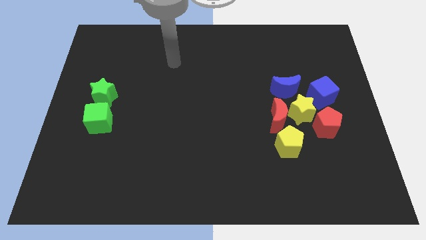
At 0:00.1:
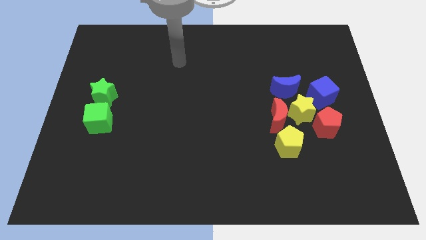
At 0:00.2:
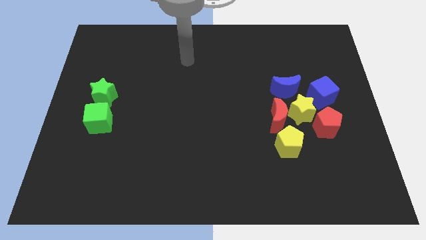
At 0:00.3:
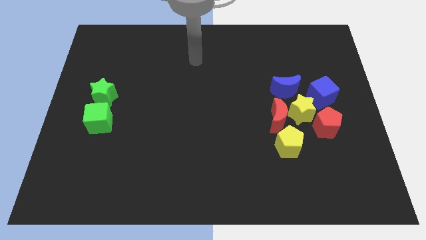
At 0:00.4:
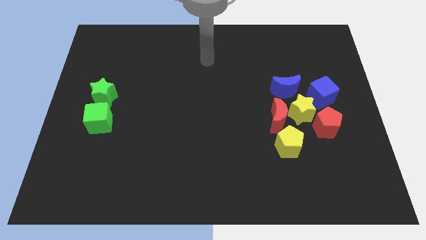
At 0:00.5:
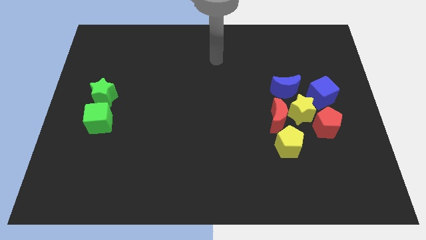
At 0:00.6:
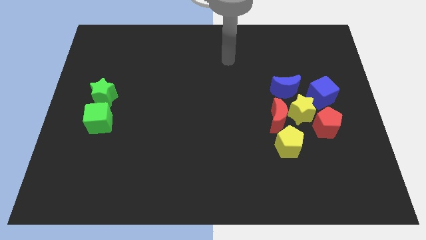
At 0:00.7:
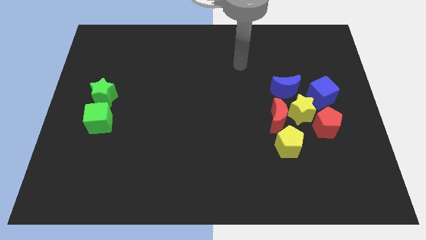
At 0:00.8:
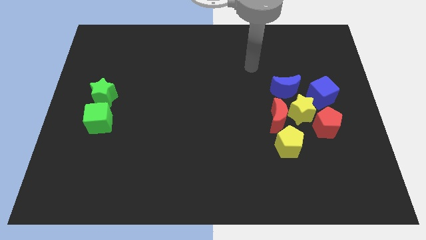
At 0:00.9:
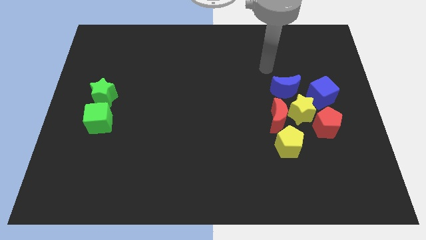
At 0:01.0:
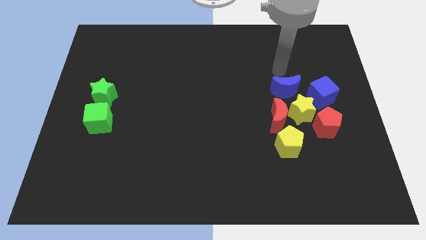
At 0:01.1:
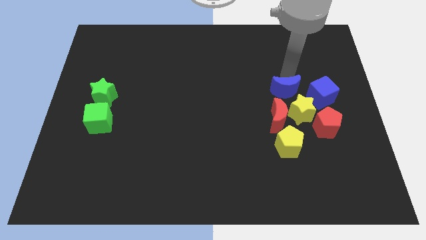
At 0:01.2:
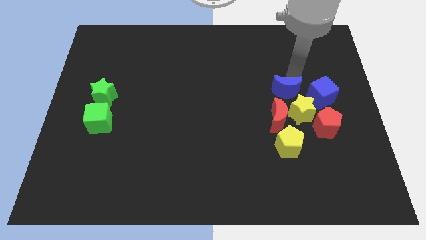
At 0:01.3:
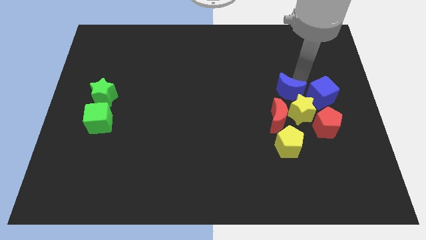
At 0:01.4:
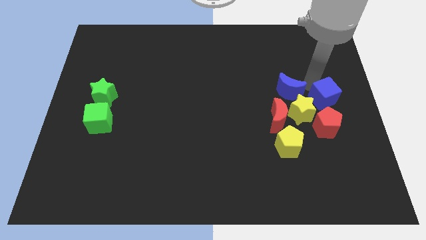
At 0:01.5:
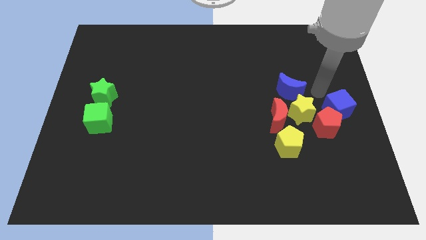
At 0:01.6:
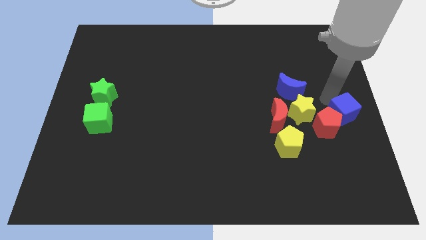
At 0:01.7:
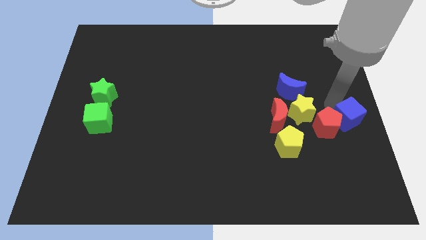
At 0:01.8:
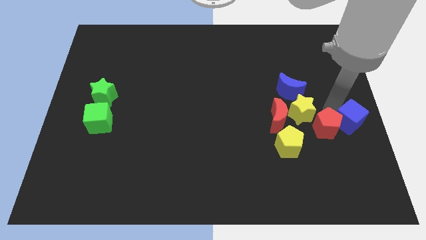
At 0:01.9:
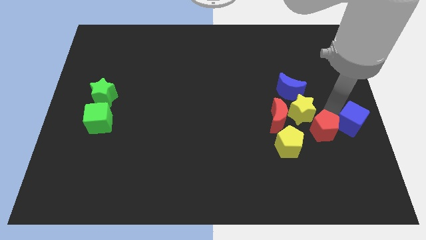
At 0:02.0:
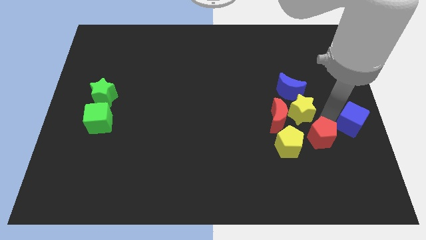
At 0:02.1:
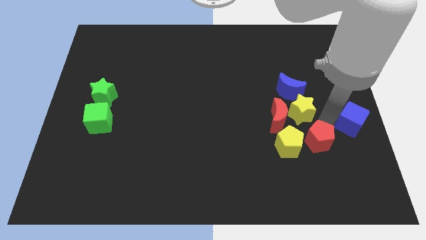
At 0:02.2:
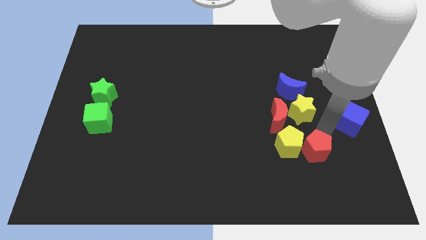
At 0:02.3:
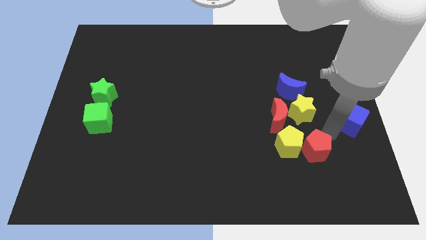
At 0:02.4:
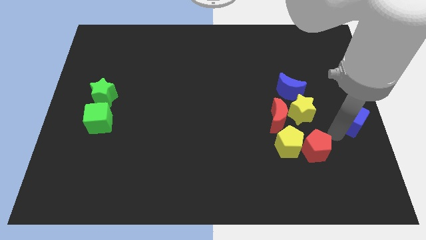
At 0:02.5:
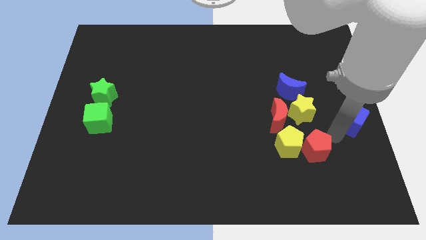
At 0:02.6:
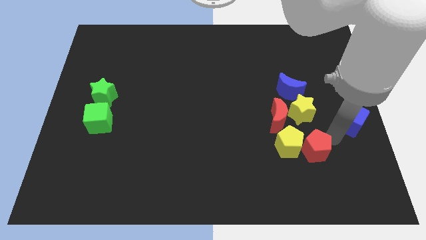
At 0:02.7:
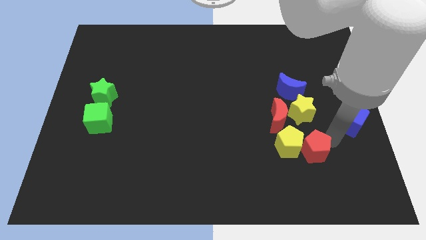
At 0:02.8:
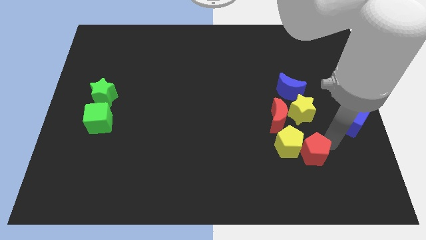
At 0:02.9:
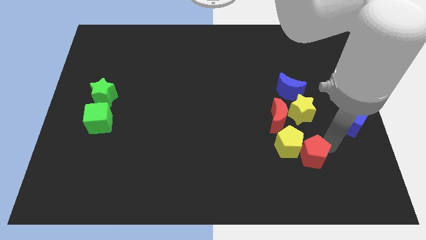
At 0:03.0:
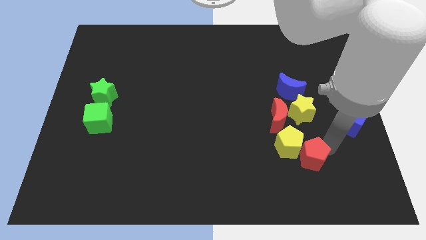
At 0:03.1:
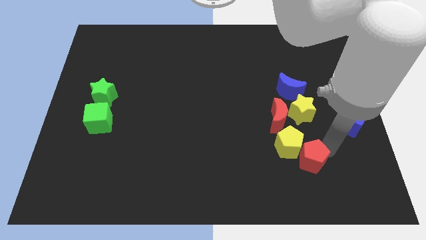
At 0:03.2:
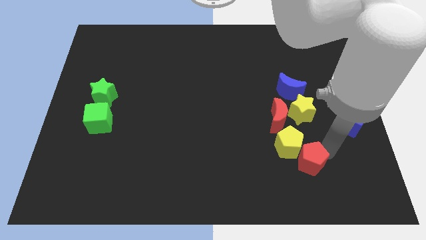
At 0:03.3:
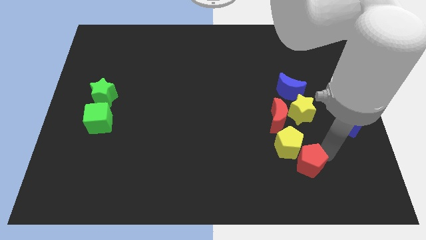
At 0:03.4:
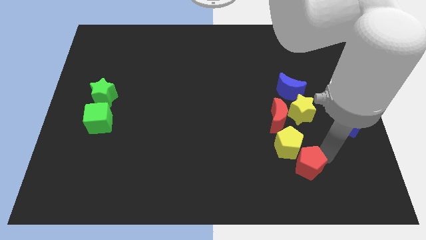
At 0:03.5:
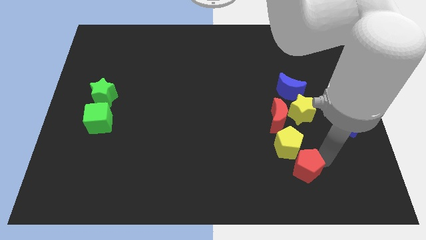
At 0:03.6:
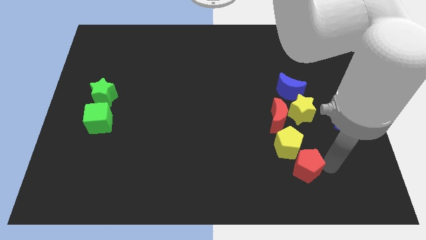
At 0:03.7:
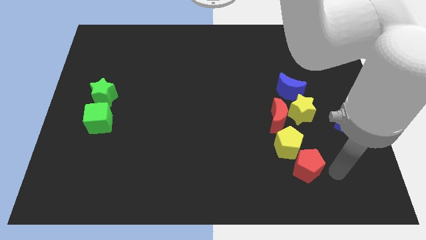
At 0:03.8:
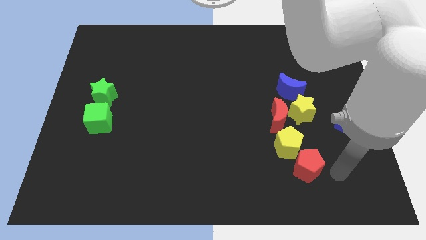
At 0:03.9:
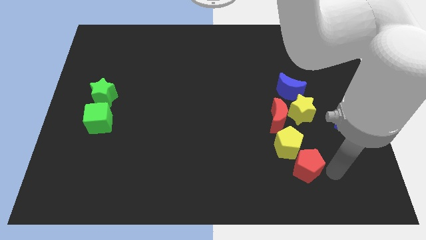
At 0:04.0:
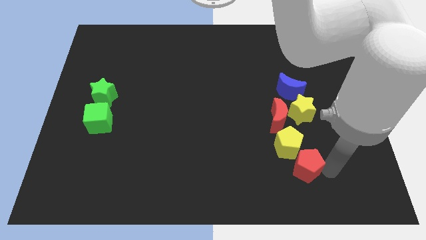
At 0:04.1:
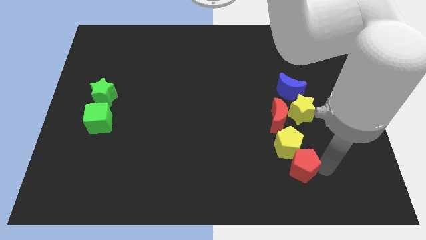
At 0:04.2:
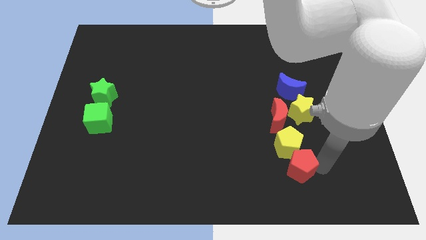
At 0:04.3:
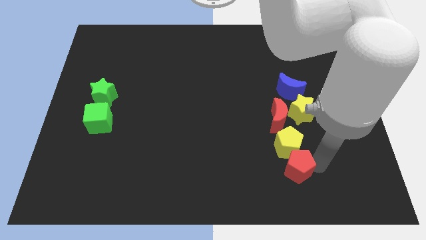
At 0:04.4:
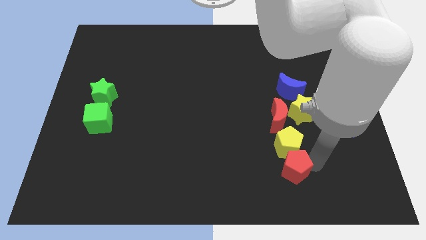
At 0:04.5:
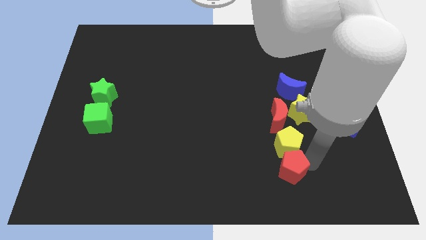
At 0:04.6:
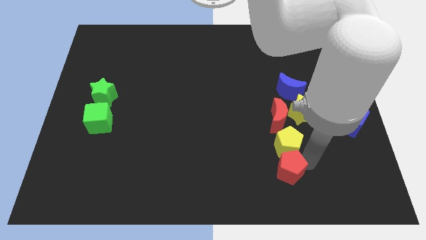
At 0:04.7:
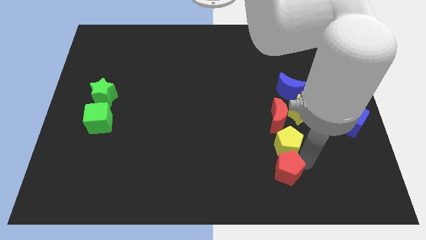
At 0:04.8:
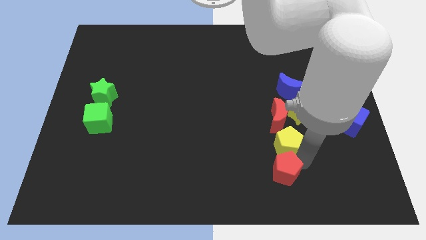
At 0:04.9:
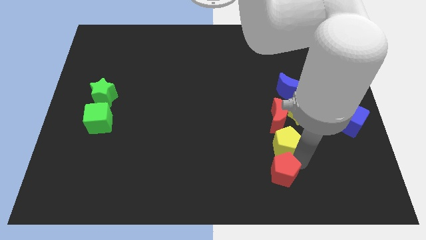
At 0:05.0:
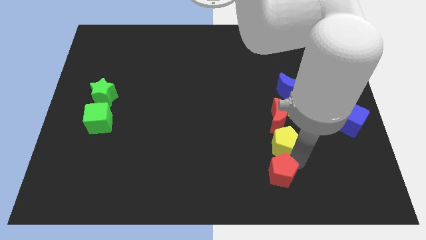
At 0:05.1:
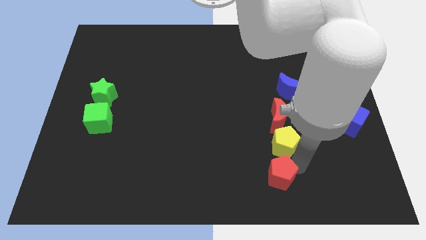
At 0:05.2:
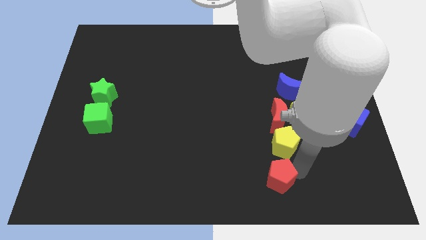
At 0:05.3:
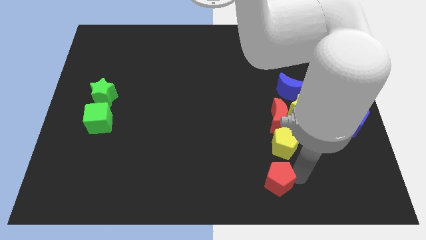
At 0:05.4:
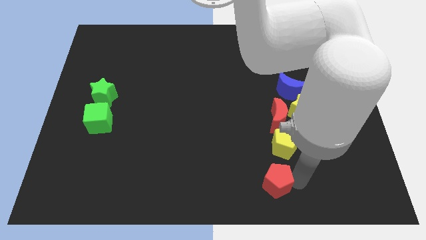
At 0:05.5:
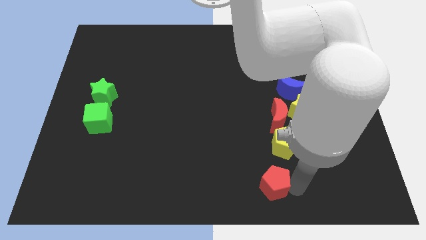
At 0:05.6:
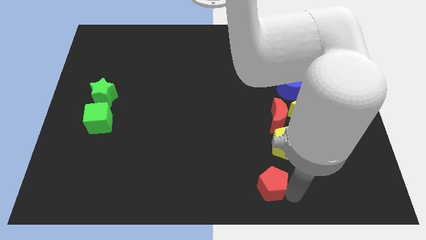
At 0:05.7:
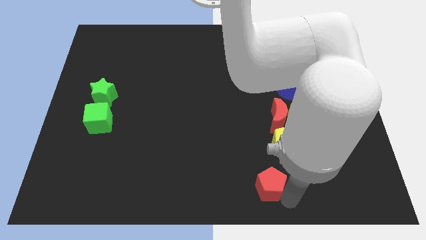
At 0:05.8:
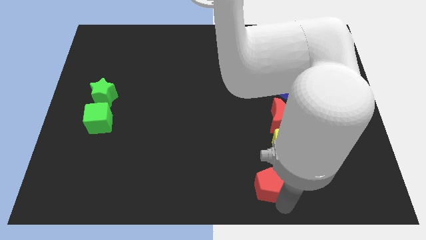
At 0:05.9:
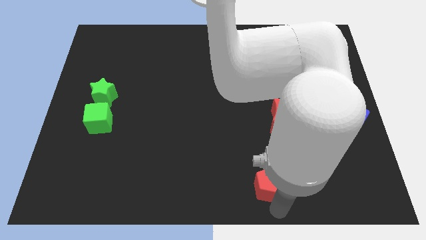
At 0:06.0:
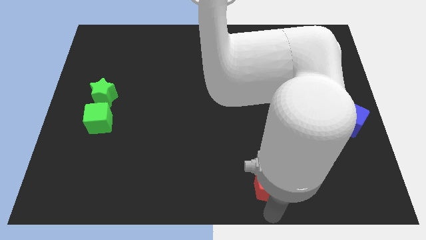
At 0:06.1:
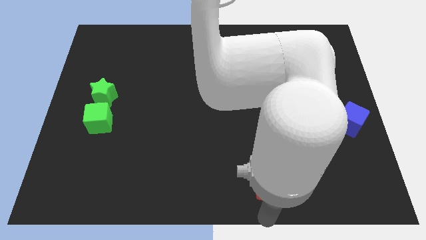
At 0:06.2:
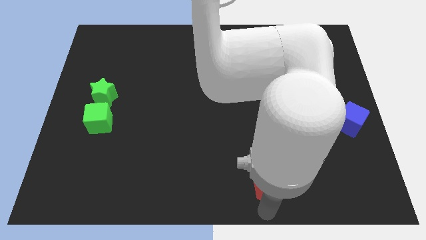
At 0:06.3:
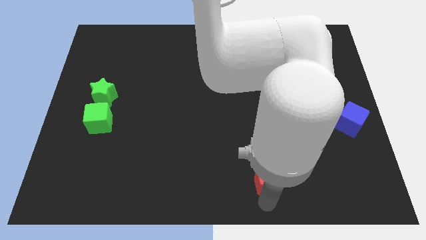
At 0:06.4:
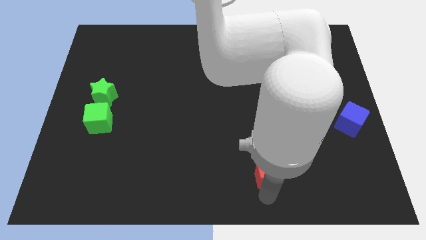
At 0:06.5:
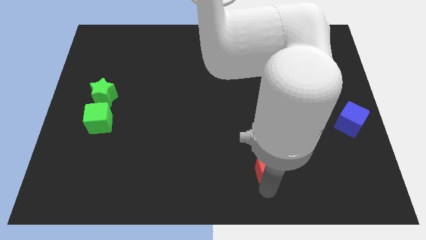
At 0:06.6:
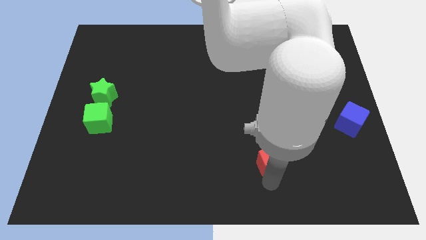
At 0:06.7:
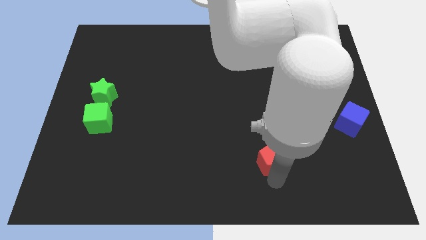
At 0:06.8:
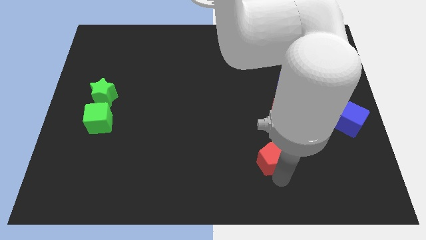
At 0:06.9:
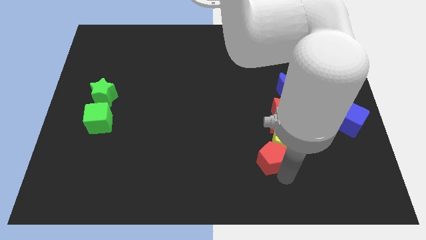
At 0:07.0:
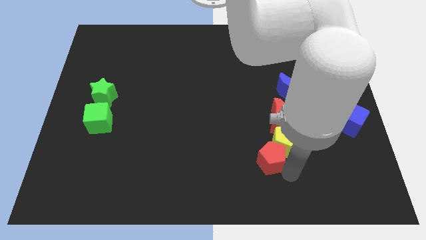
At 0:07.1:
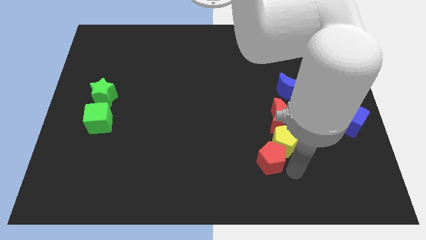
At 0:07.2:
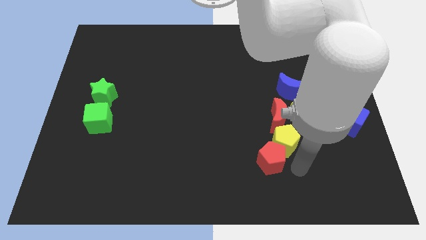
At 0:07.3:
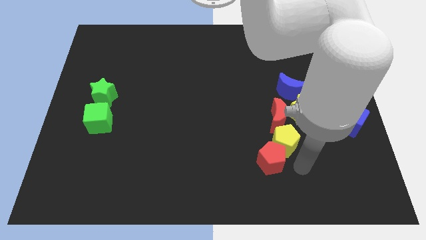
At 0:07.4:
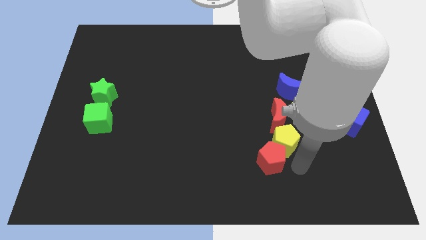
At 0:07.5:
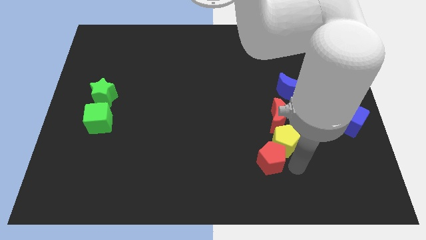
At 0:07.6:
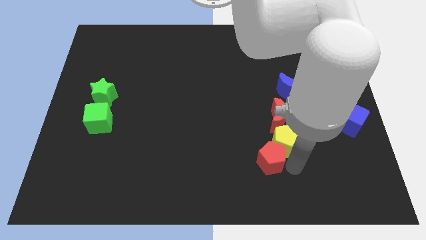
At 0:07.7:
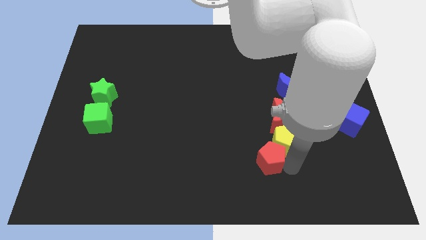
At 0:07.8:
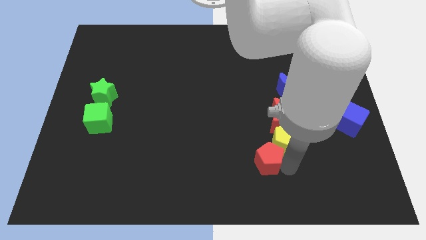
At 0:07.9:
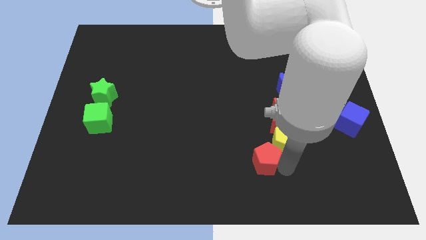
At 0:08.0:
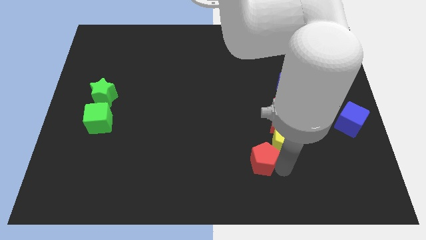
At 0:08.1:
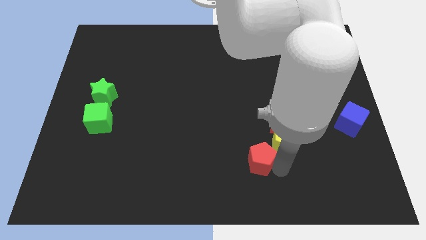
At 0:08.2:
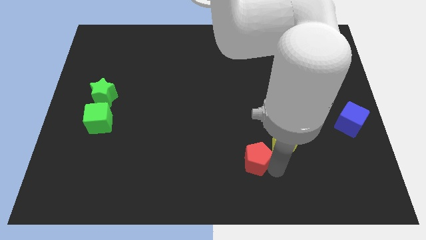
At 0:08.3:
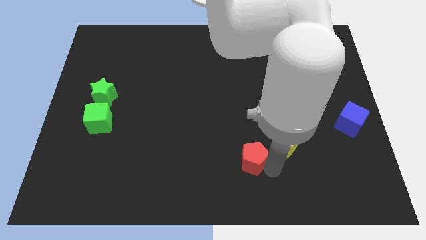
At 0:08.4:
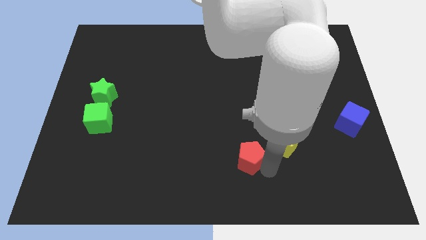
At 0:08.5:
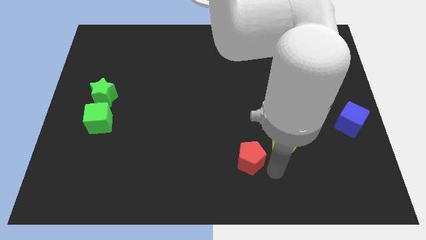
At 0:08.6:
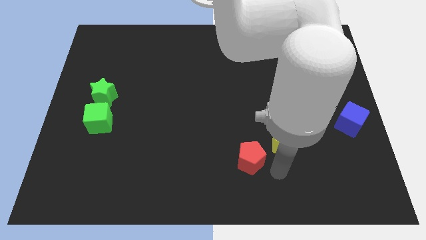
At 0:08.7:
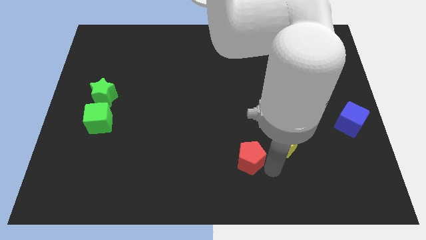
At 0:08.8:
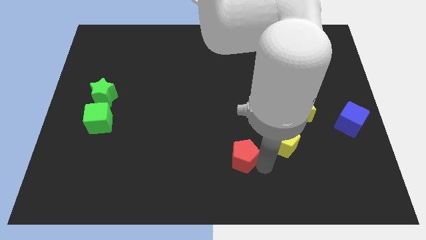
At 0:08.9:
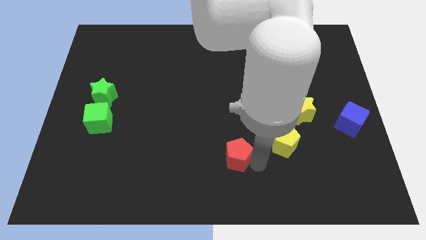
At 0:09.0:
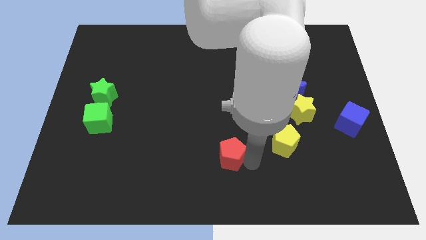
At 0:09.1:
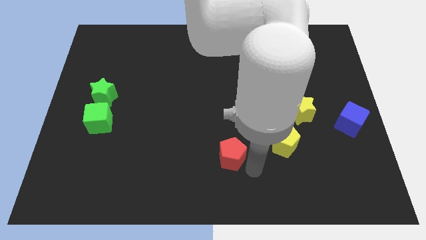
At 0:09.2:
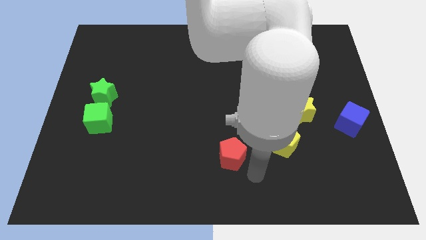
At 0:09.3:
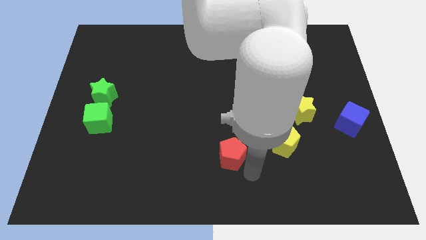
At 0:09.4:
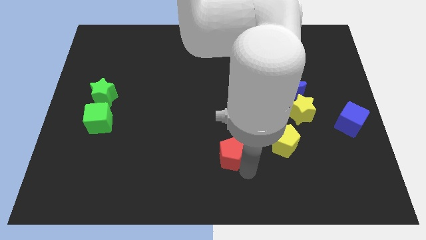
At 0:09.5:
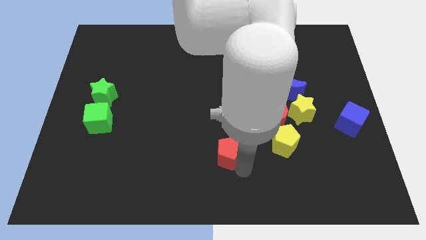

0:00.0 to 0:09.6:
slide the red pentagon left
